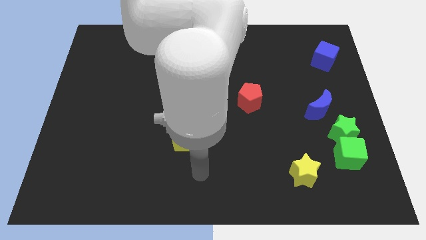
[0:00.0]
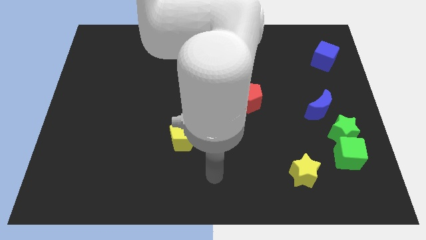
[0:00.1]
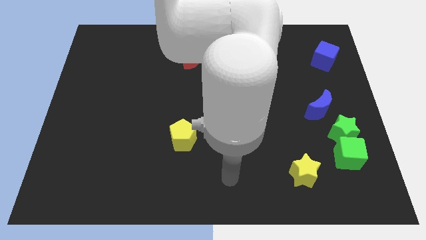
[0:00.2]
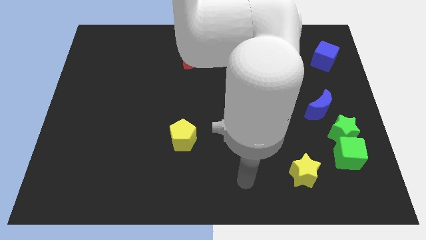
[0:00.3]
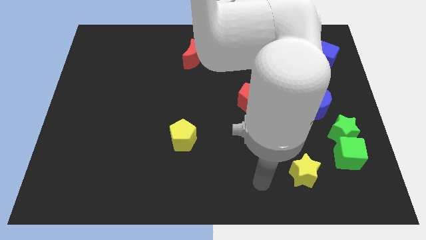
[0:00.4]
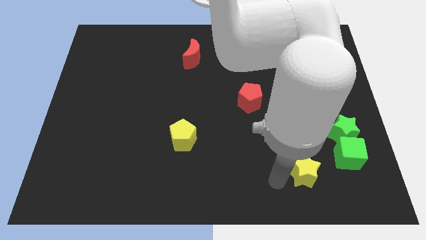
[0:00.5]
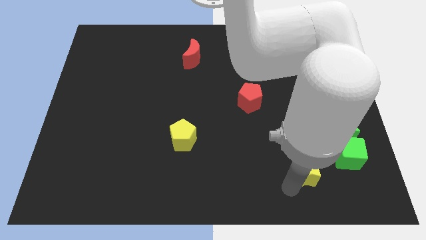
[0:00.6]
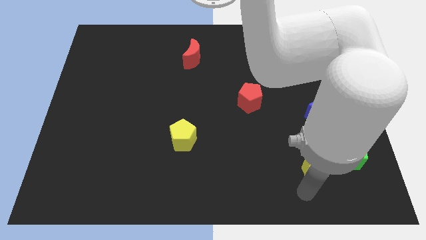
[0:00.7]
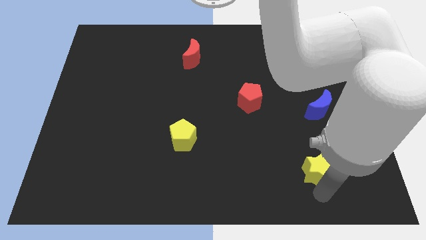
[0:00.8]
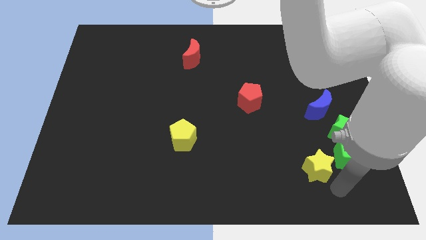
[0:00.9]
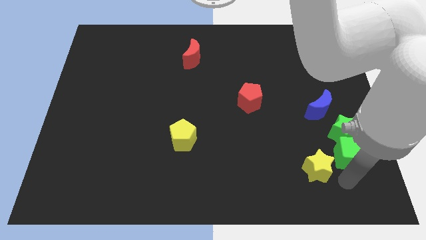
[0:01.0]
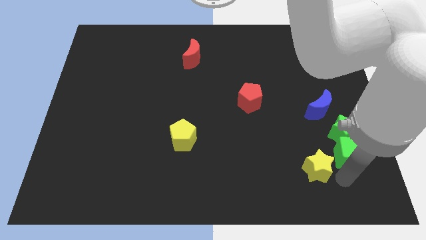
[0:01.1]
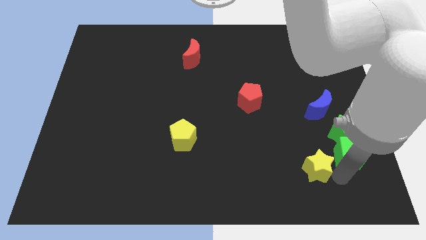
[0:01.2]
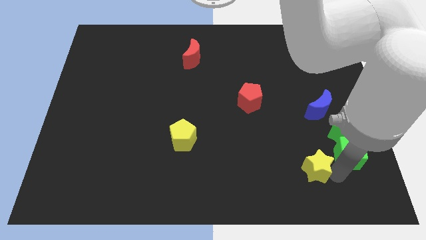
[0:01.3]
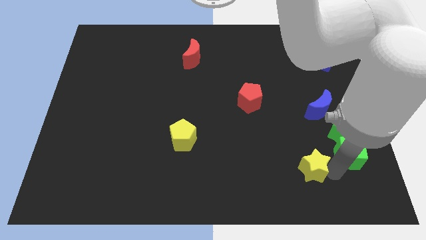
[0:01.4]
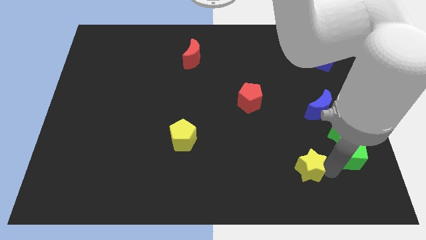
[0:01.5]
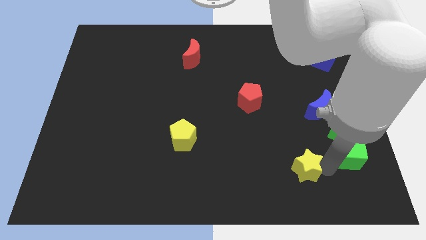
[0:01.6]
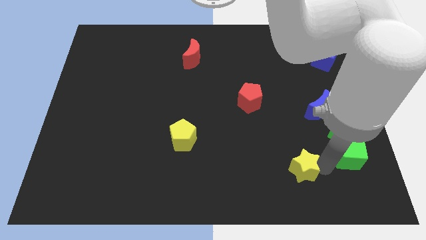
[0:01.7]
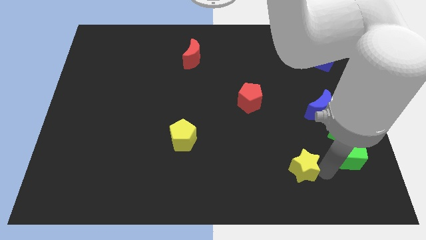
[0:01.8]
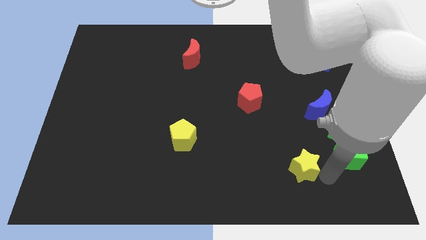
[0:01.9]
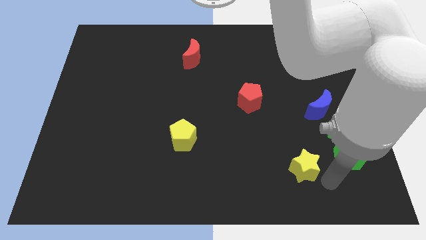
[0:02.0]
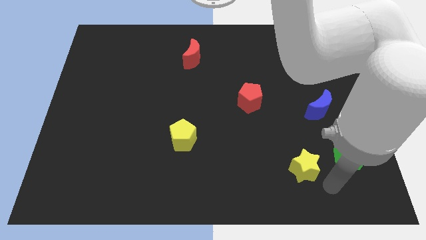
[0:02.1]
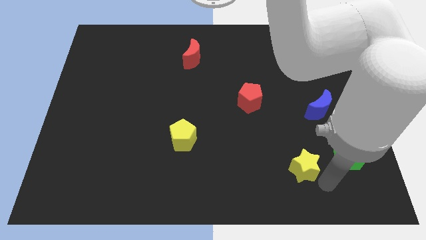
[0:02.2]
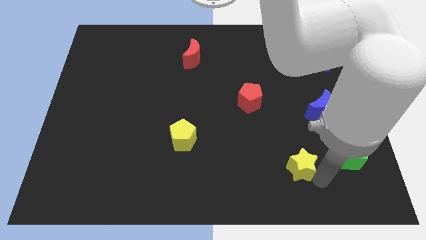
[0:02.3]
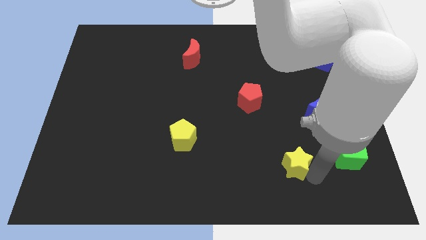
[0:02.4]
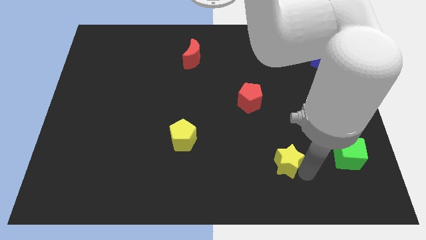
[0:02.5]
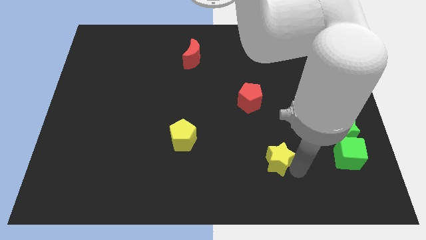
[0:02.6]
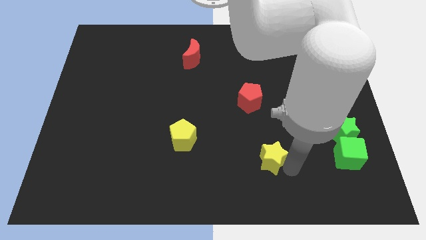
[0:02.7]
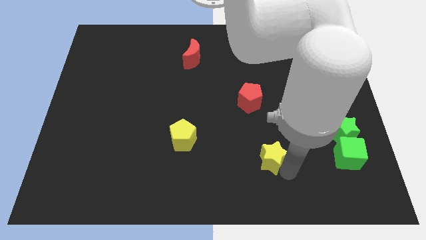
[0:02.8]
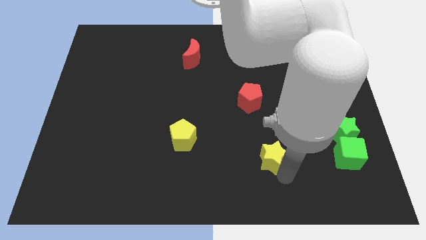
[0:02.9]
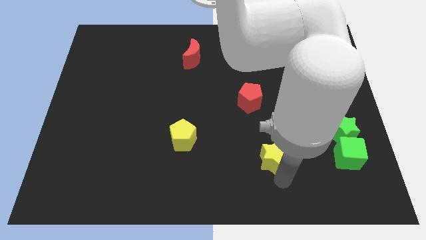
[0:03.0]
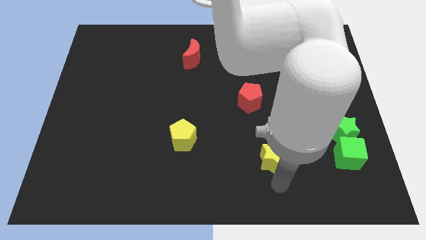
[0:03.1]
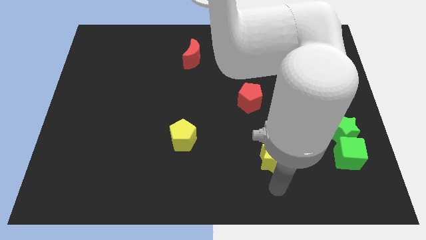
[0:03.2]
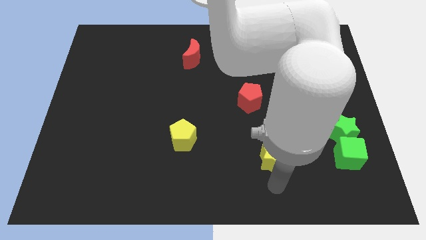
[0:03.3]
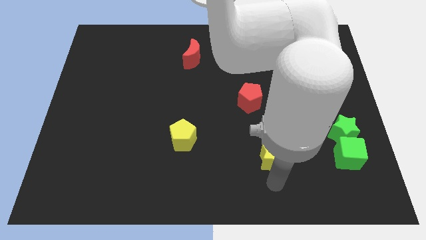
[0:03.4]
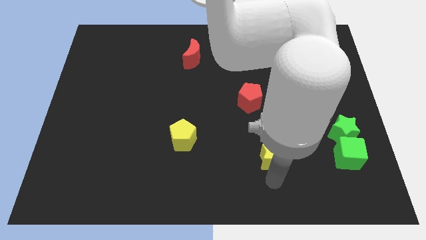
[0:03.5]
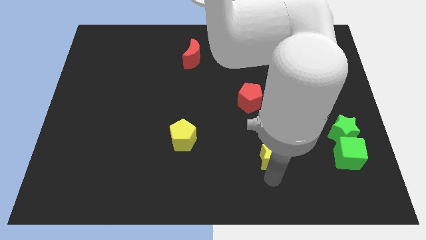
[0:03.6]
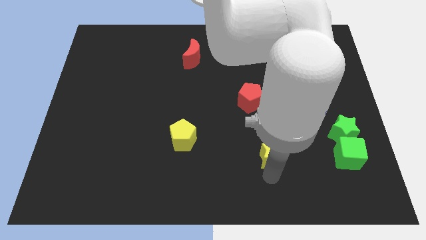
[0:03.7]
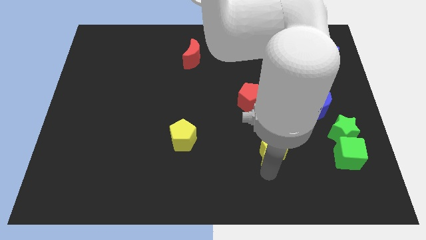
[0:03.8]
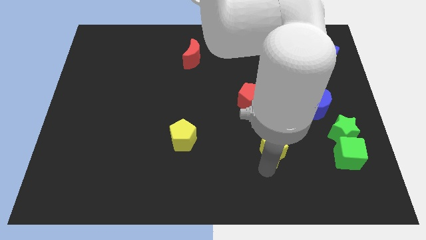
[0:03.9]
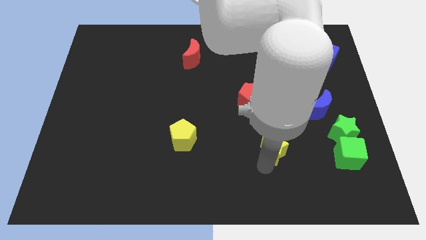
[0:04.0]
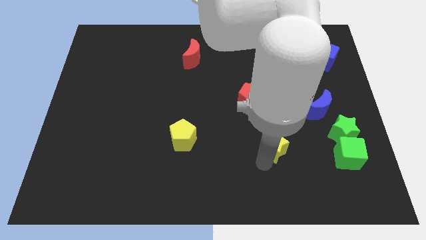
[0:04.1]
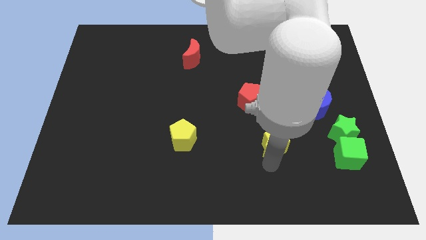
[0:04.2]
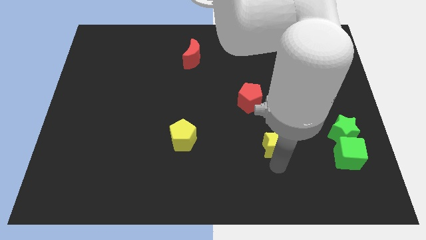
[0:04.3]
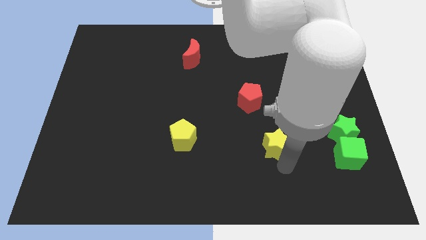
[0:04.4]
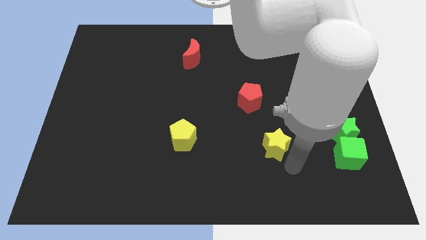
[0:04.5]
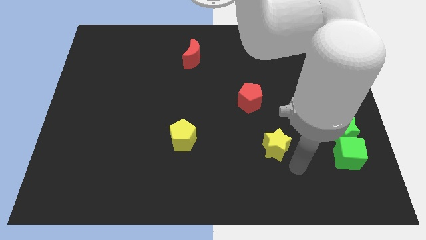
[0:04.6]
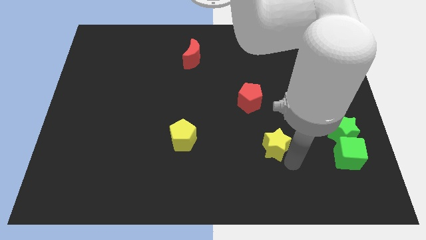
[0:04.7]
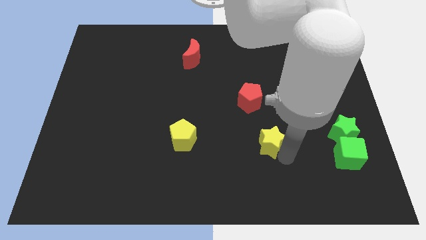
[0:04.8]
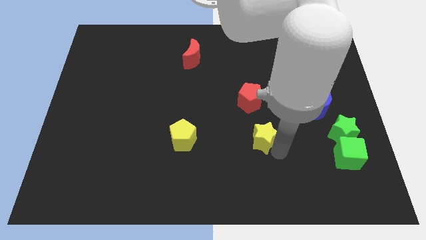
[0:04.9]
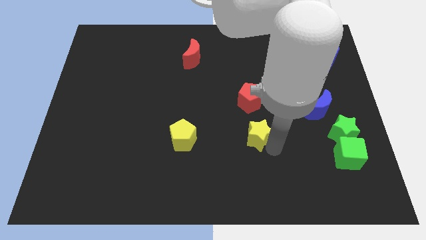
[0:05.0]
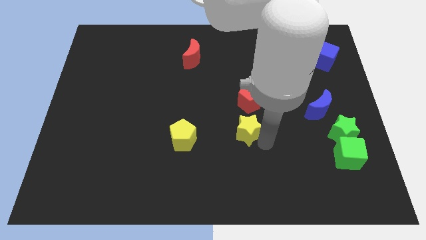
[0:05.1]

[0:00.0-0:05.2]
push the yellow star to the middle

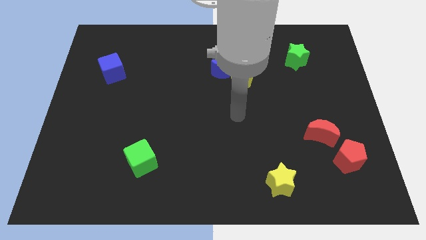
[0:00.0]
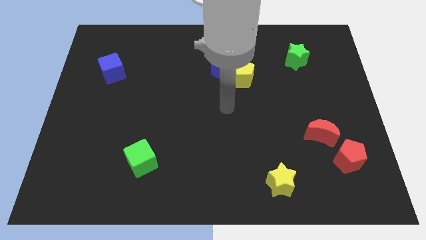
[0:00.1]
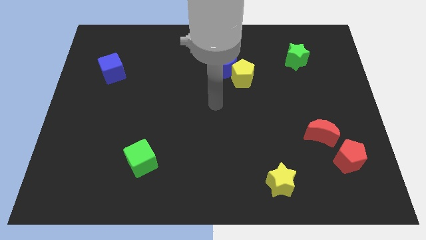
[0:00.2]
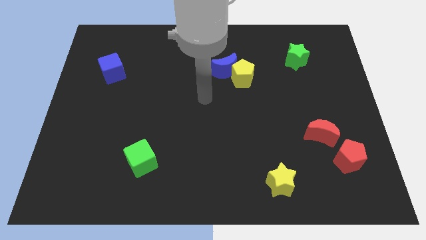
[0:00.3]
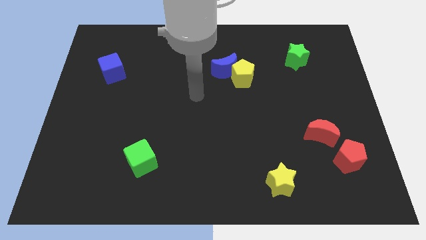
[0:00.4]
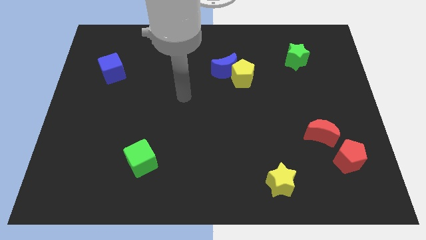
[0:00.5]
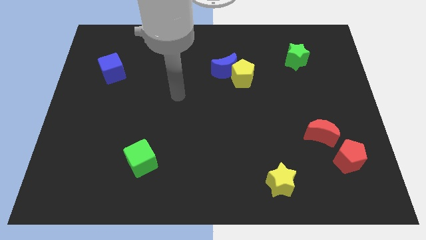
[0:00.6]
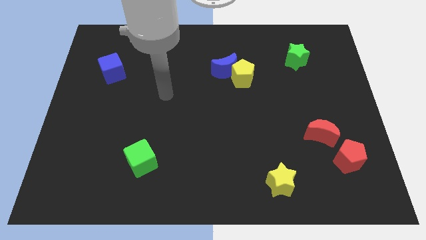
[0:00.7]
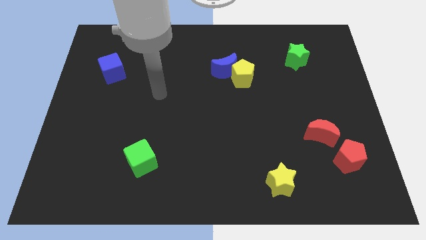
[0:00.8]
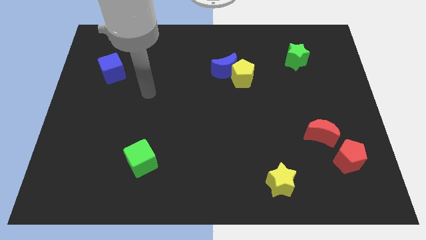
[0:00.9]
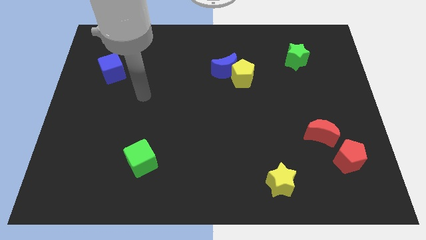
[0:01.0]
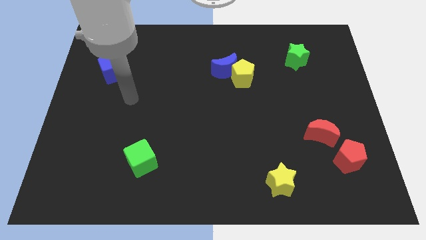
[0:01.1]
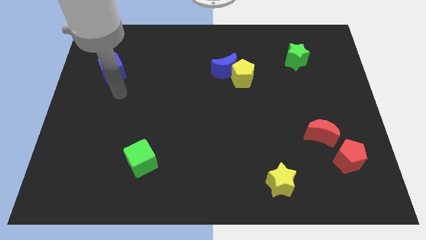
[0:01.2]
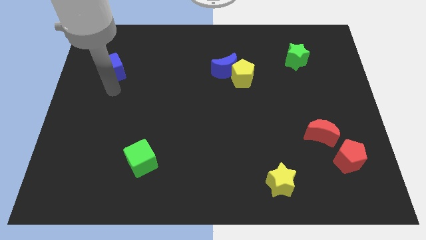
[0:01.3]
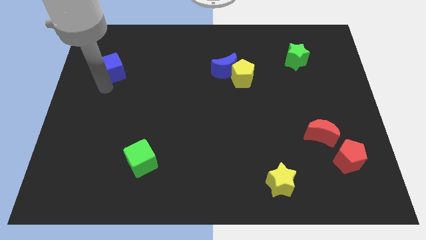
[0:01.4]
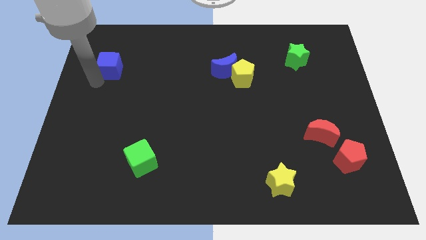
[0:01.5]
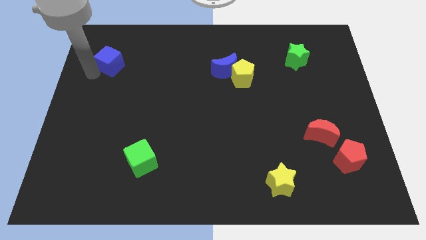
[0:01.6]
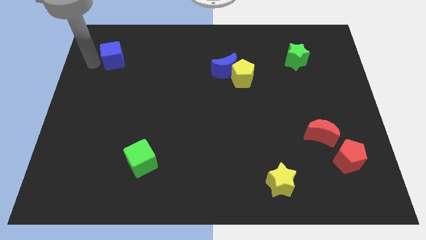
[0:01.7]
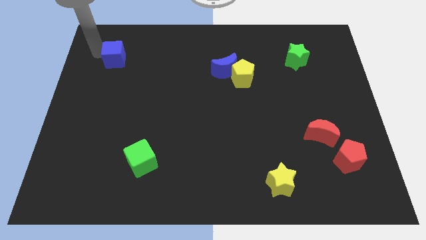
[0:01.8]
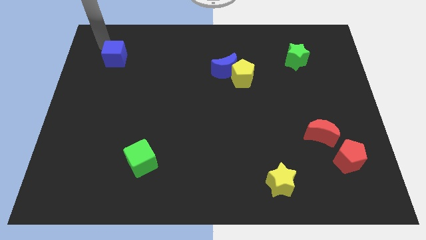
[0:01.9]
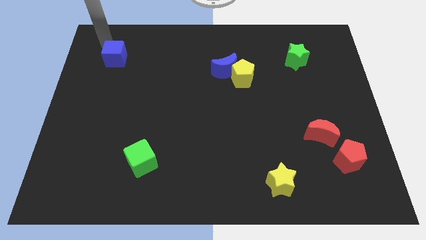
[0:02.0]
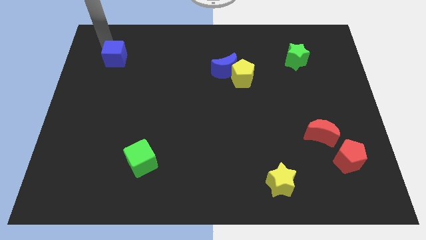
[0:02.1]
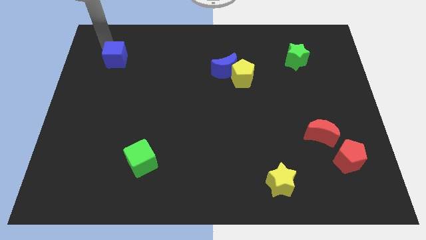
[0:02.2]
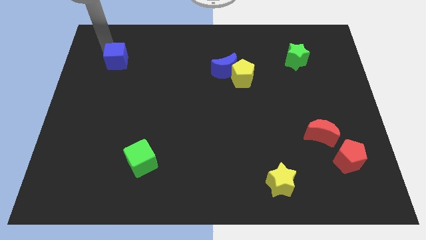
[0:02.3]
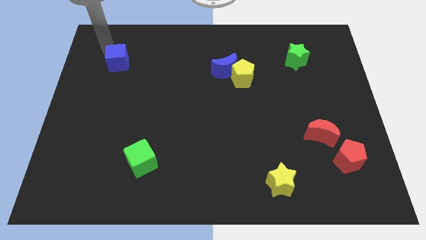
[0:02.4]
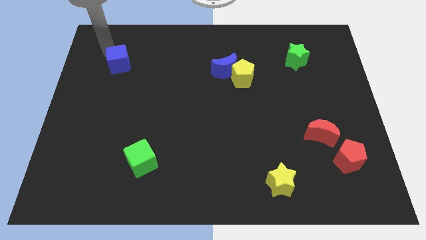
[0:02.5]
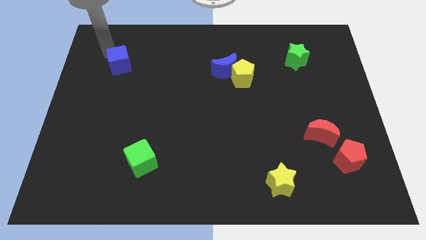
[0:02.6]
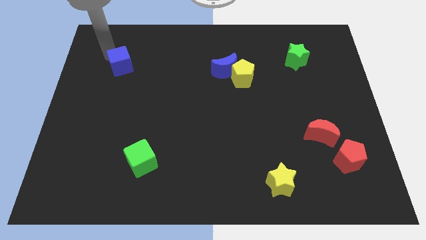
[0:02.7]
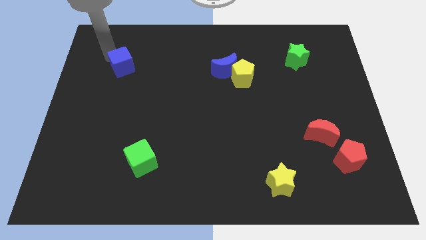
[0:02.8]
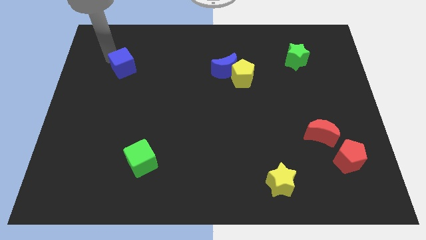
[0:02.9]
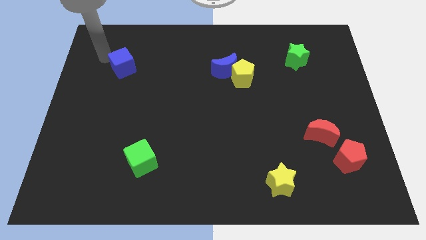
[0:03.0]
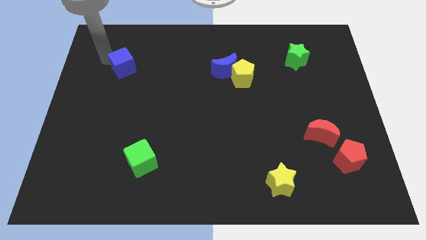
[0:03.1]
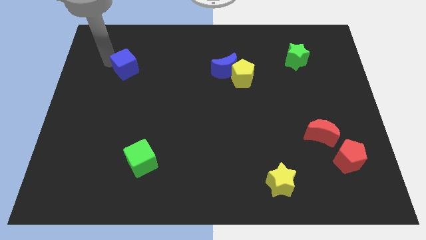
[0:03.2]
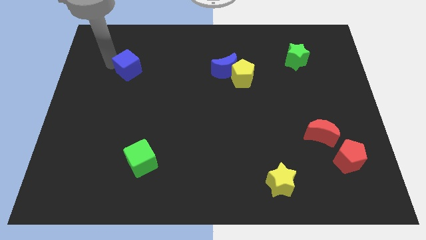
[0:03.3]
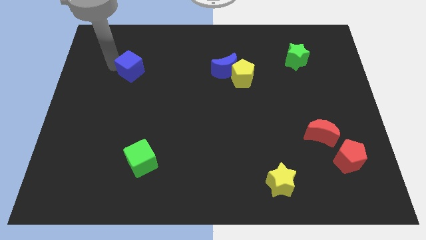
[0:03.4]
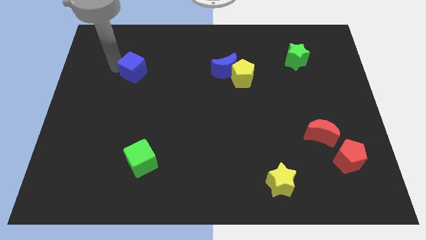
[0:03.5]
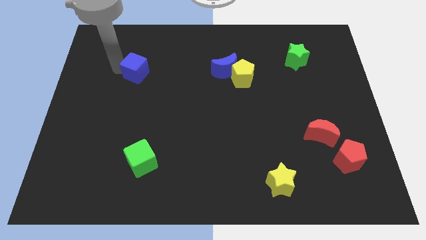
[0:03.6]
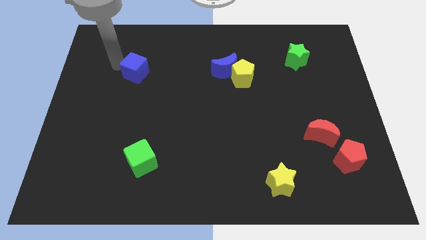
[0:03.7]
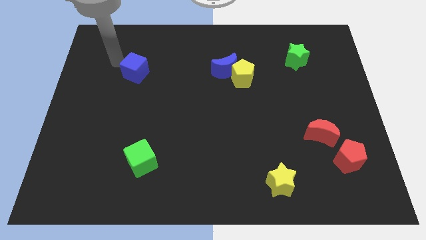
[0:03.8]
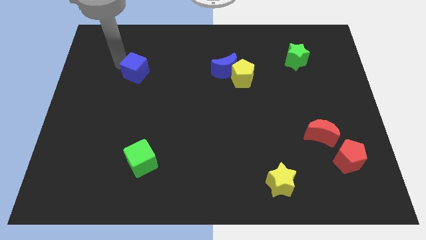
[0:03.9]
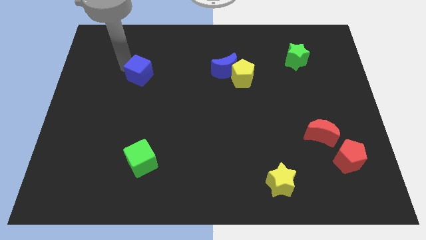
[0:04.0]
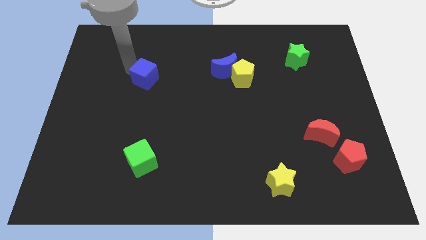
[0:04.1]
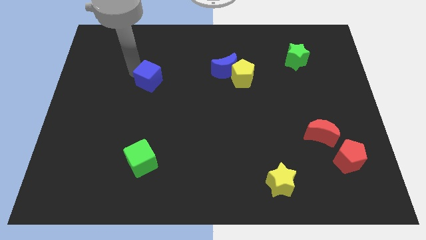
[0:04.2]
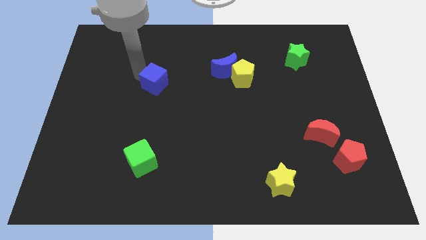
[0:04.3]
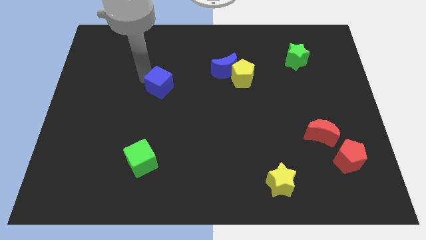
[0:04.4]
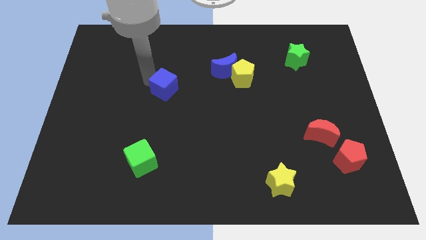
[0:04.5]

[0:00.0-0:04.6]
push the blue cube to the center
